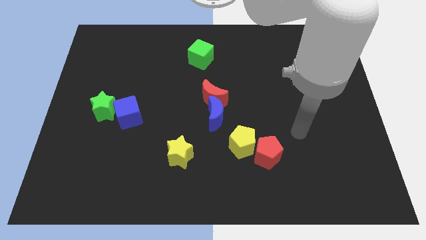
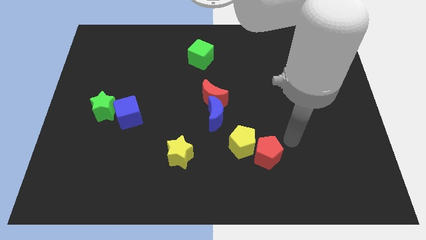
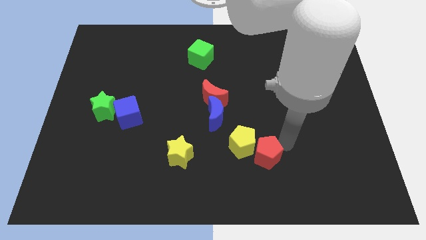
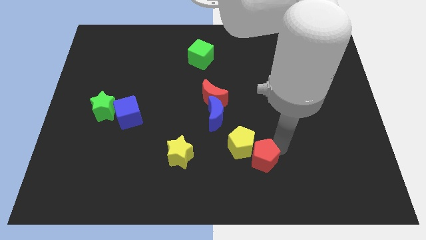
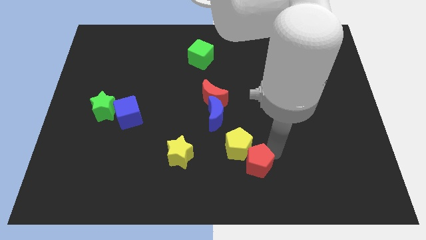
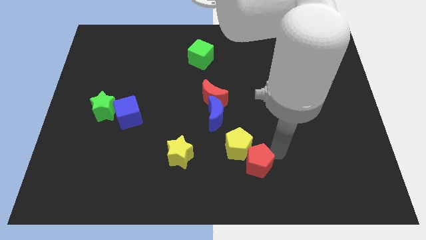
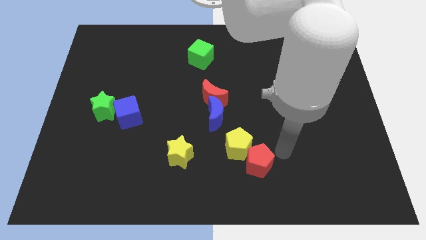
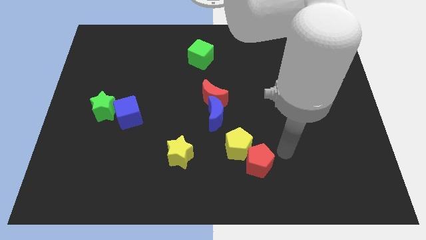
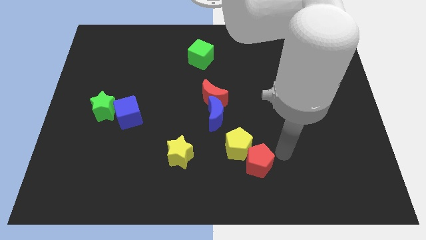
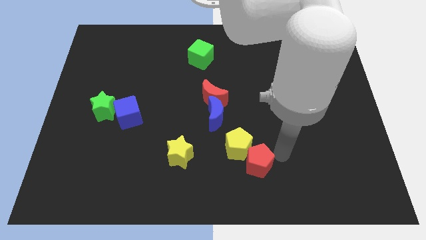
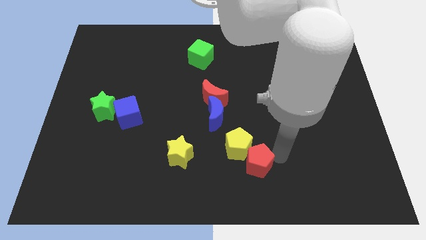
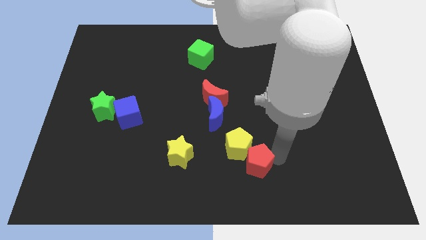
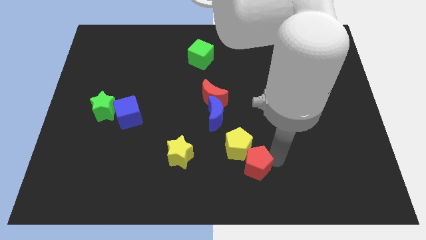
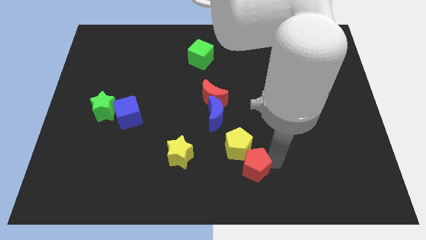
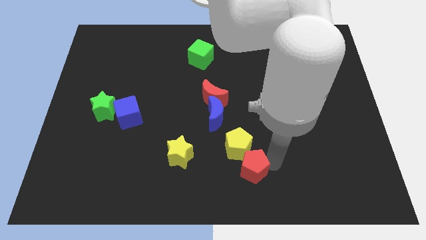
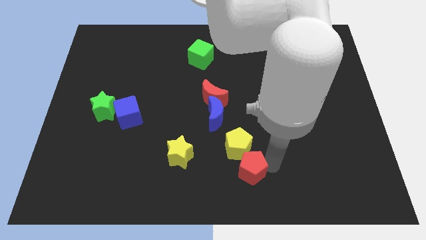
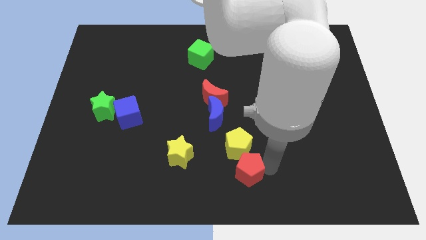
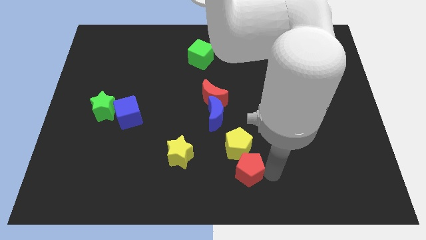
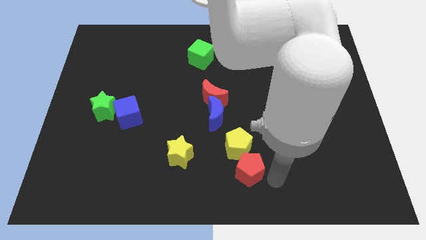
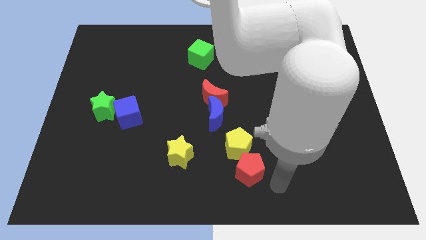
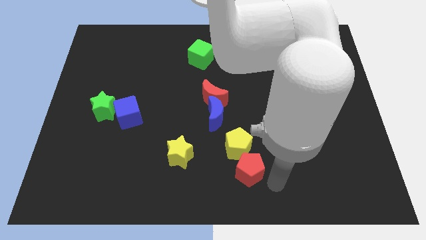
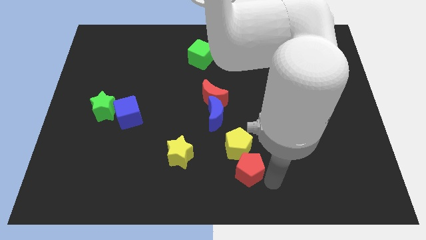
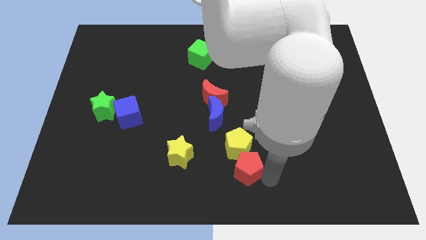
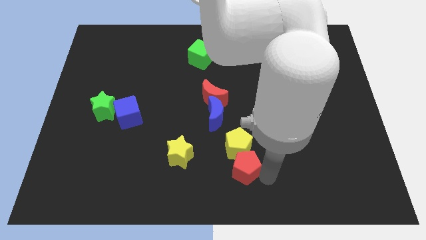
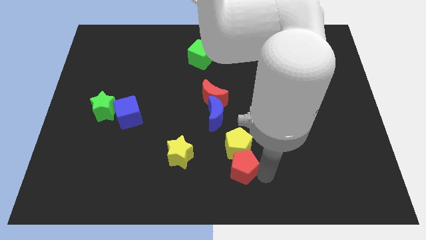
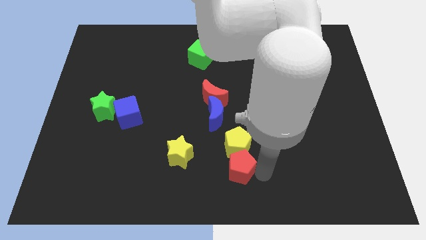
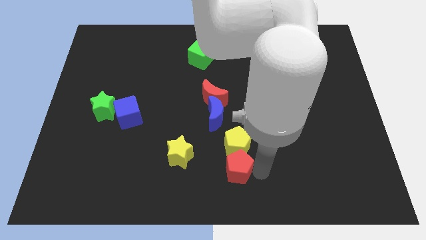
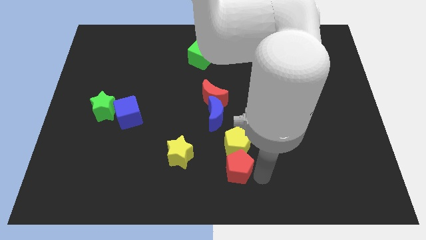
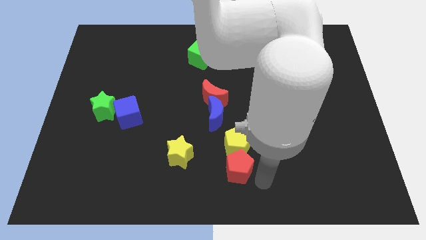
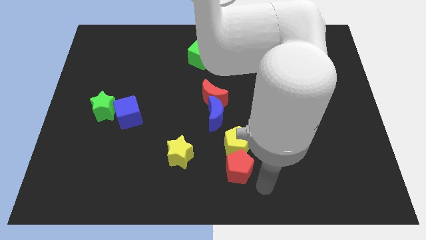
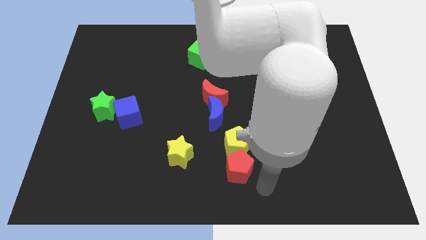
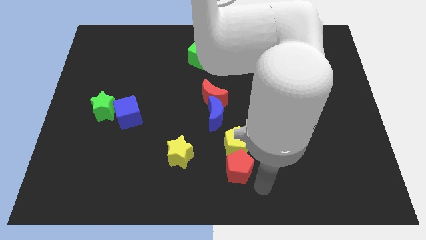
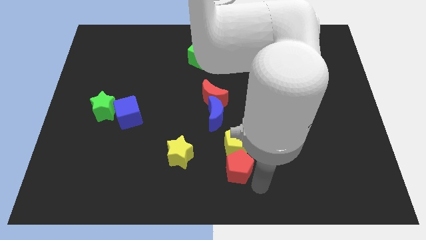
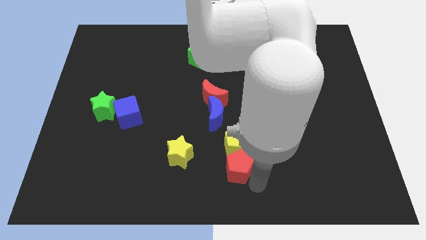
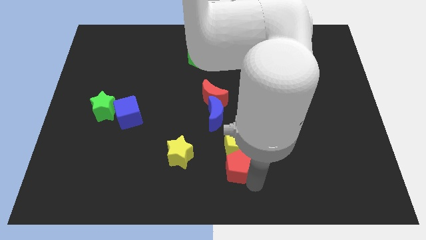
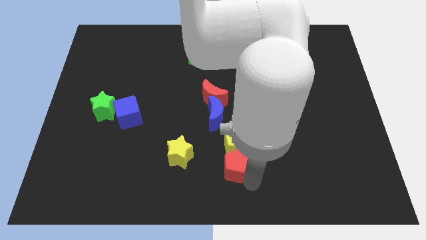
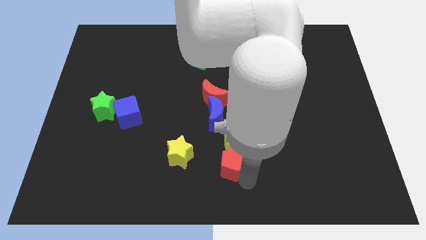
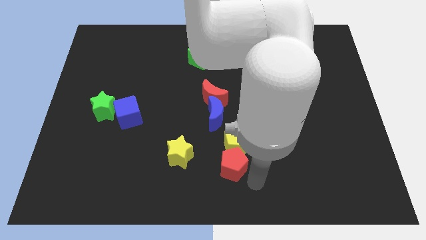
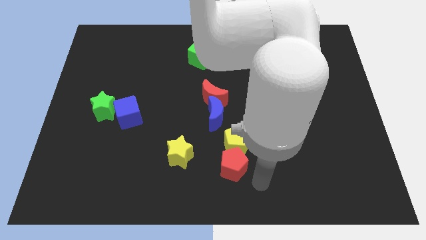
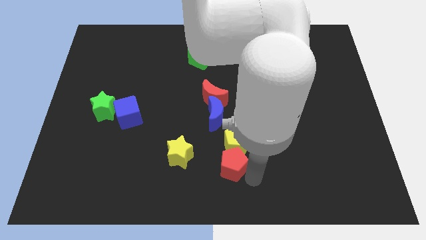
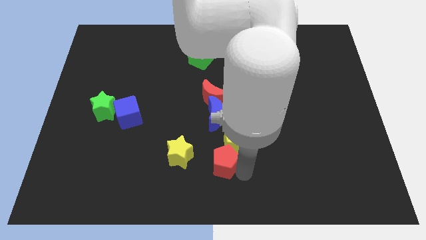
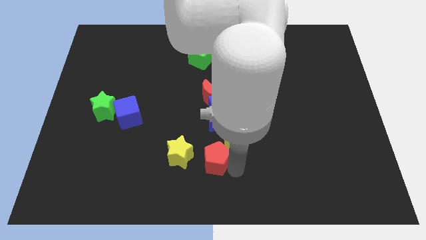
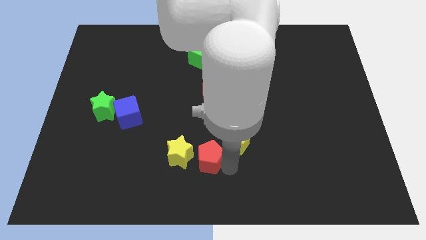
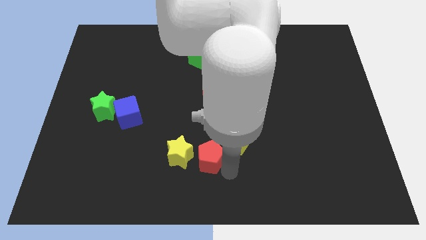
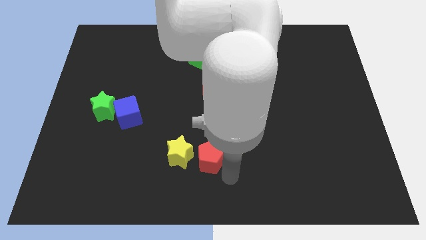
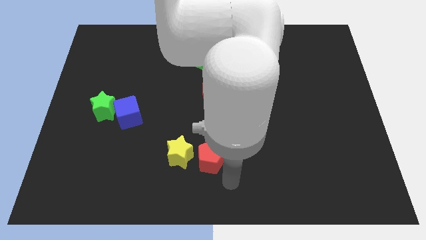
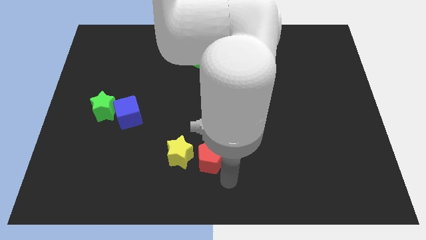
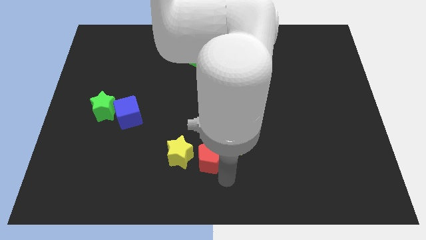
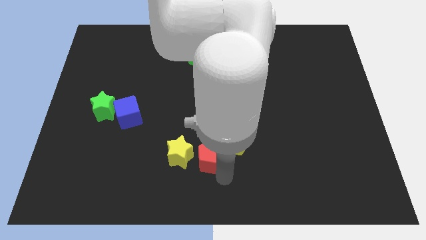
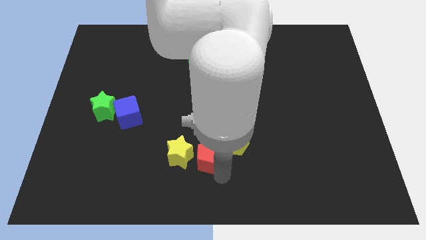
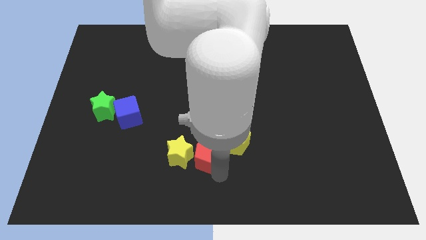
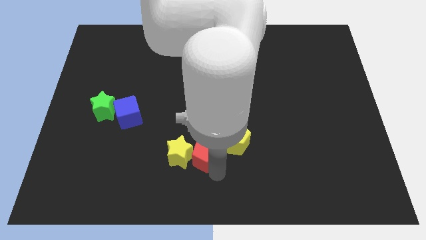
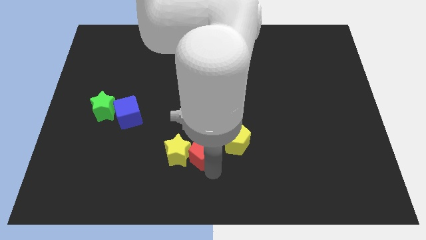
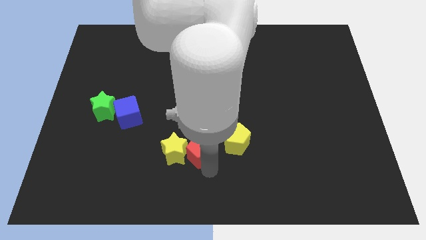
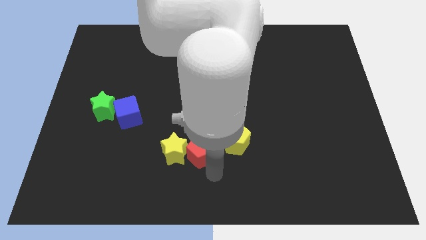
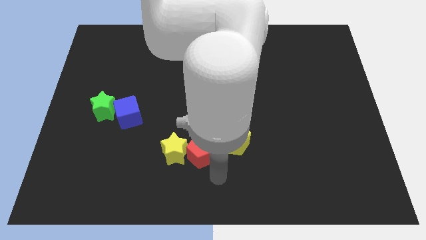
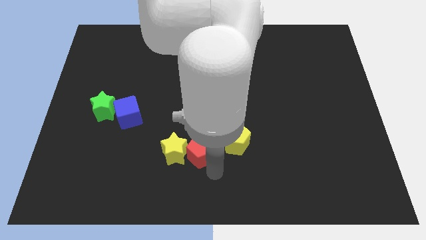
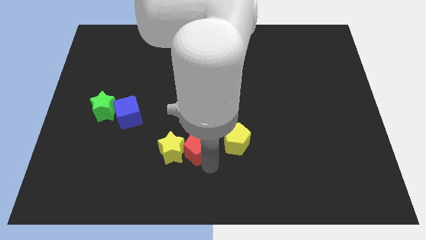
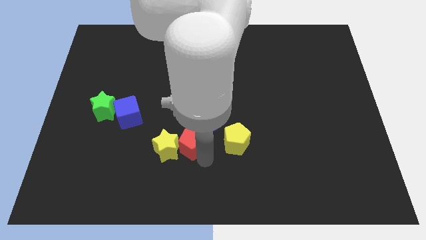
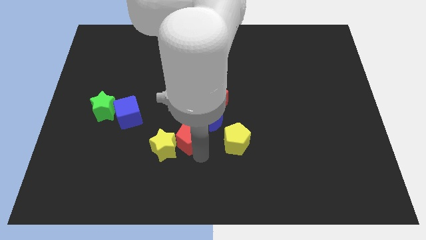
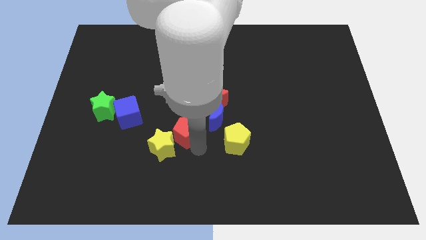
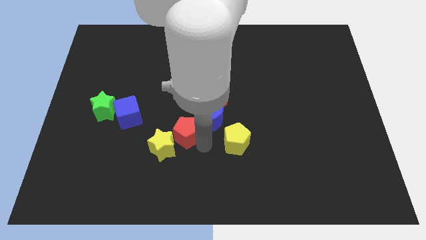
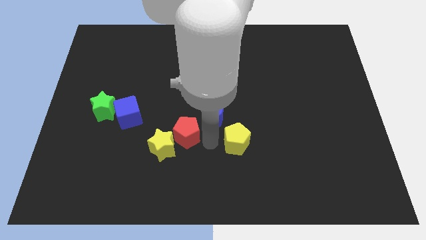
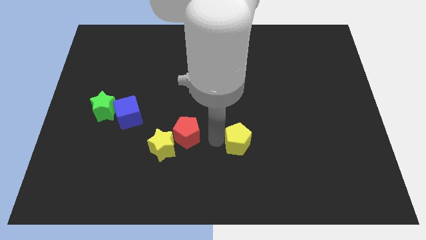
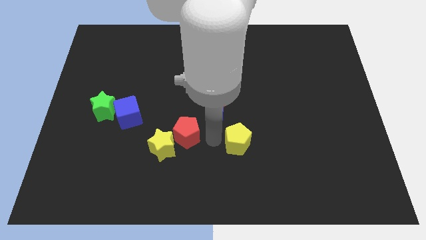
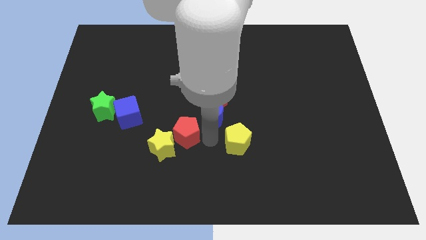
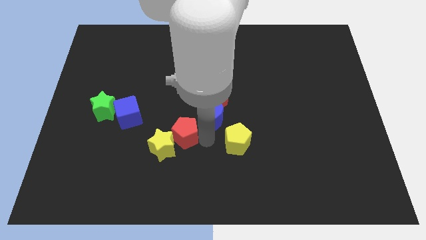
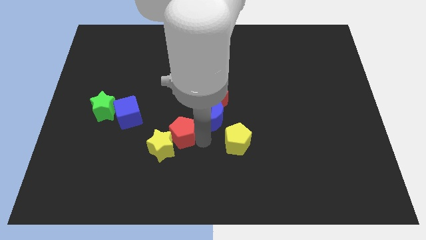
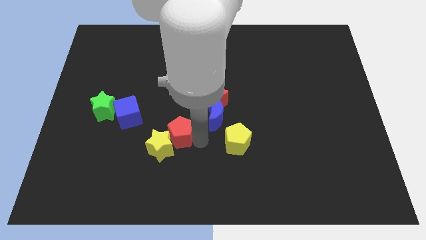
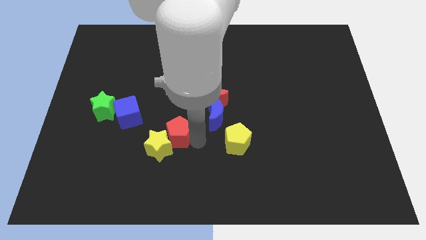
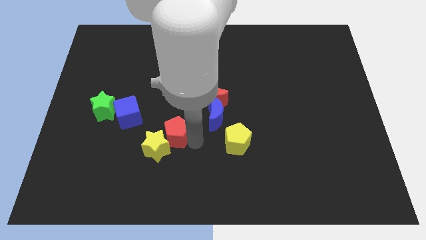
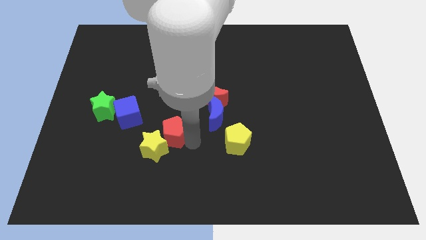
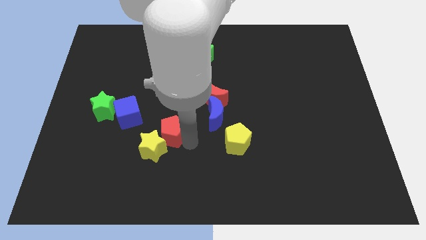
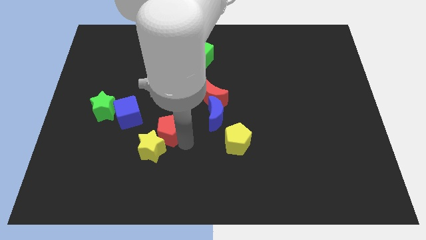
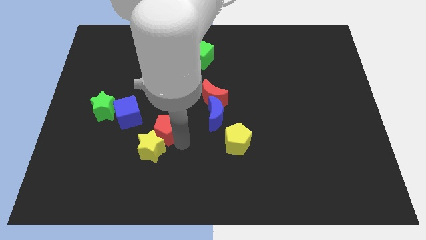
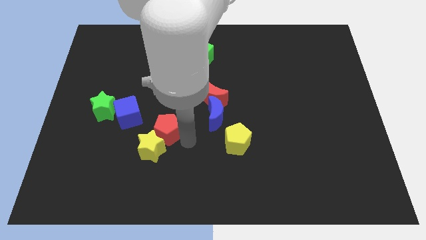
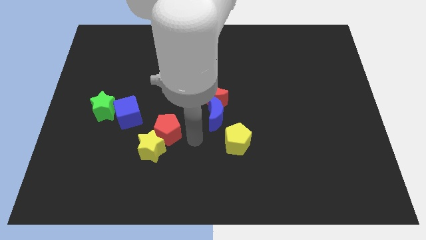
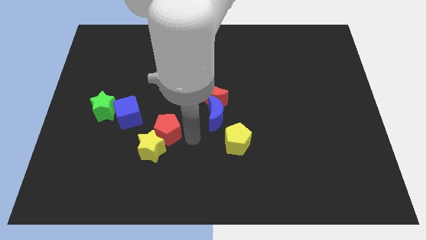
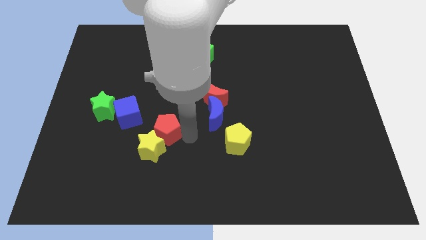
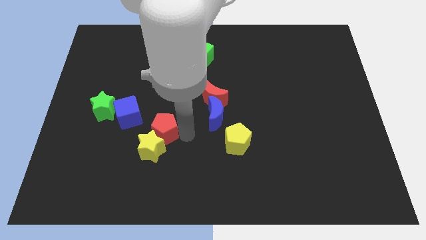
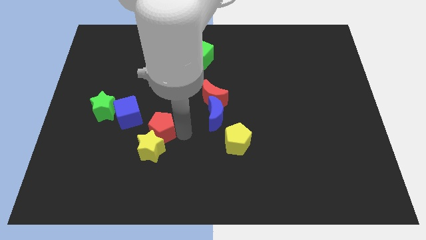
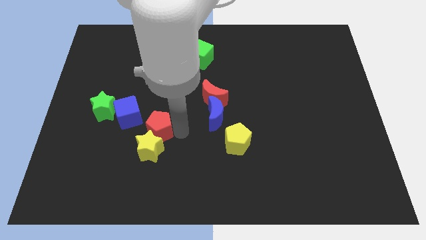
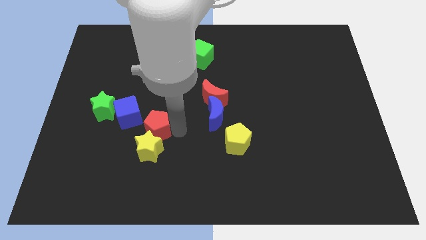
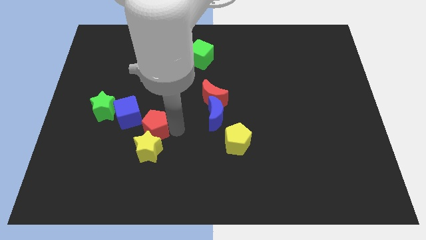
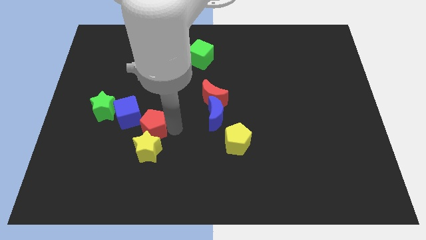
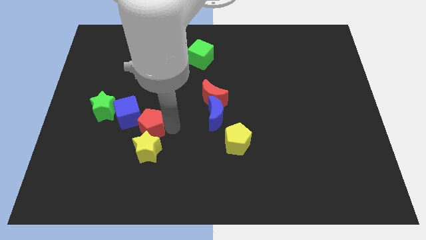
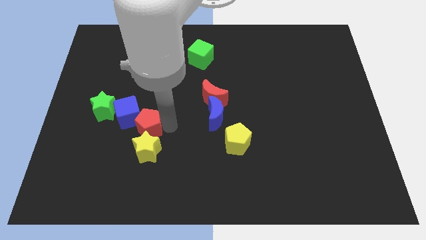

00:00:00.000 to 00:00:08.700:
push the red pentagon to the blue cube
